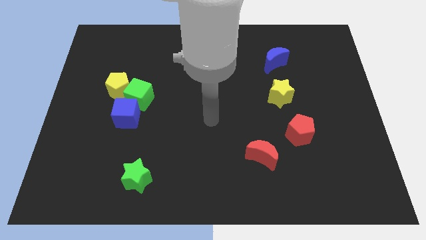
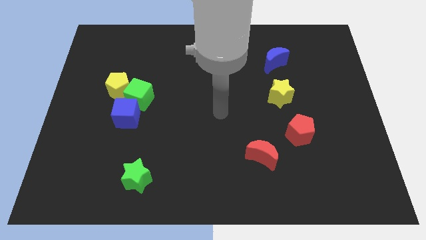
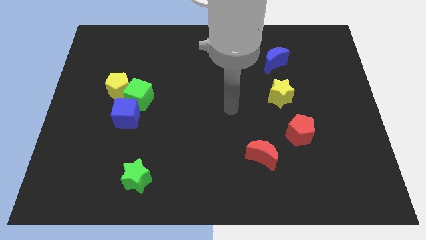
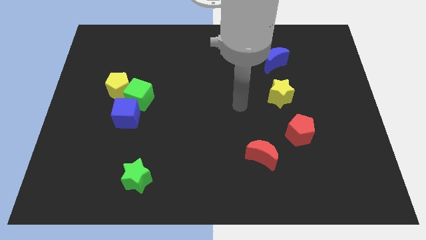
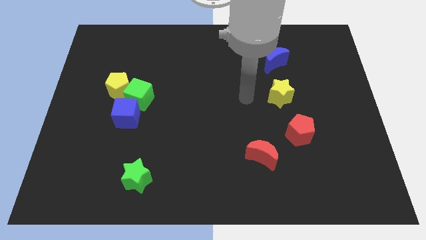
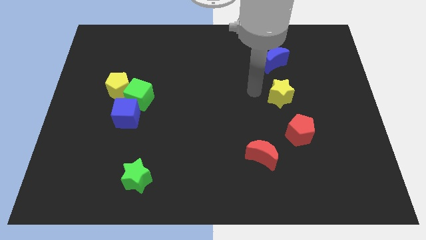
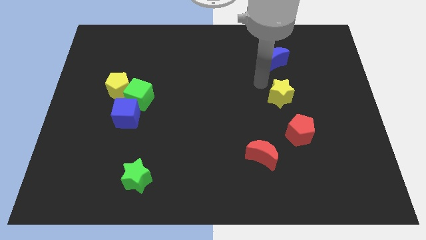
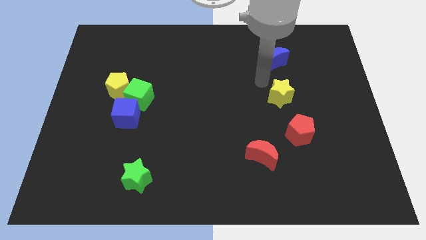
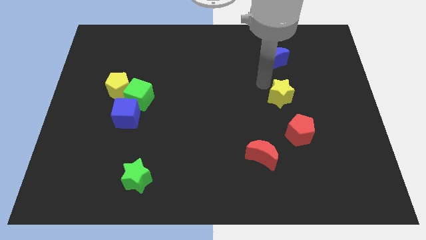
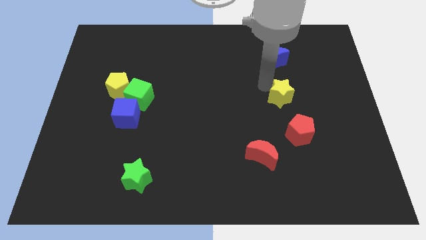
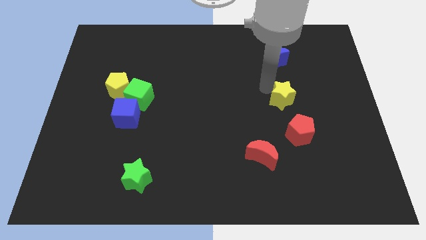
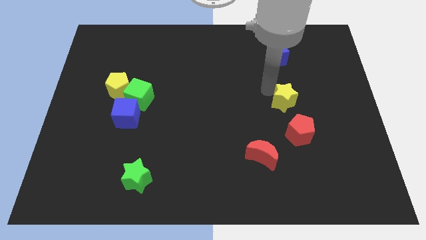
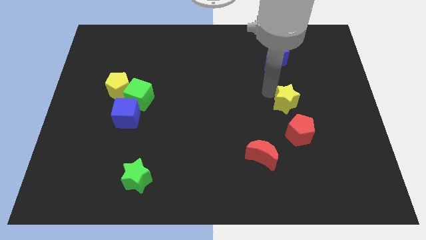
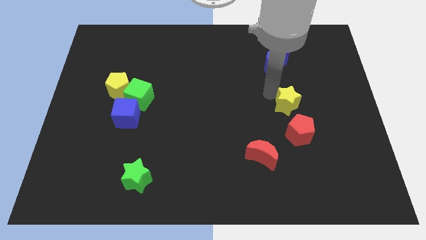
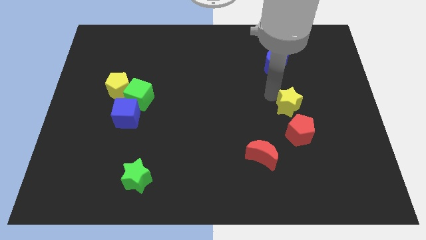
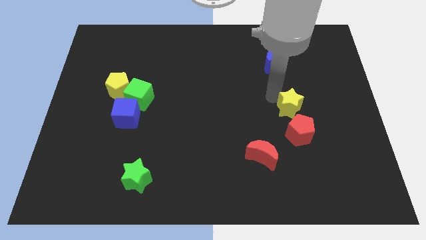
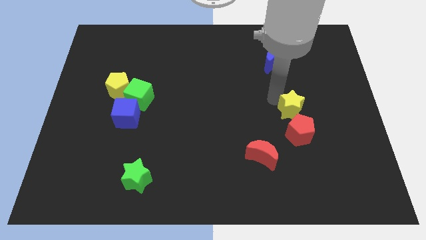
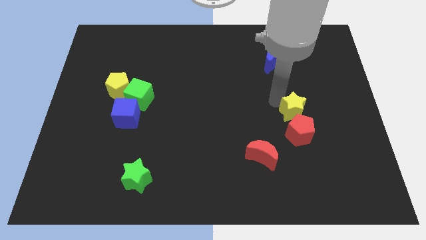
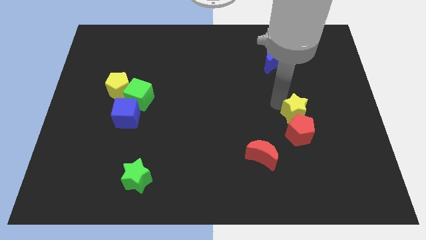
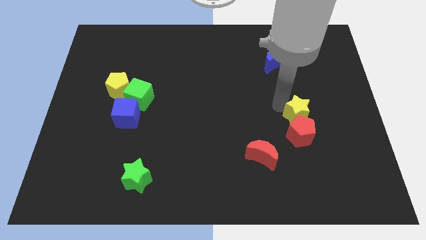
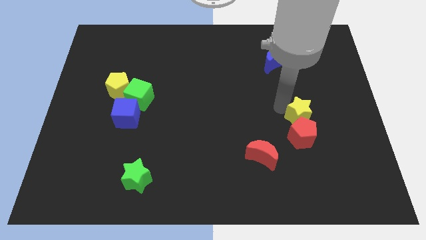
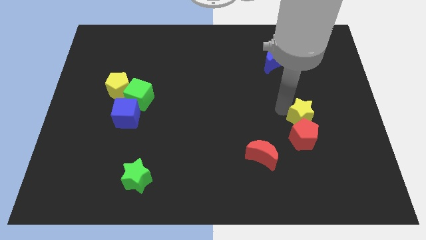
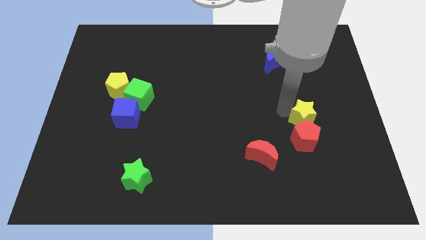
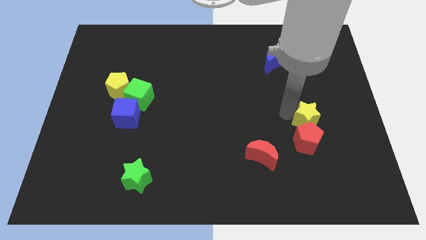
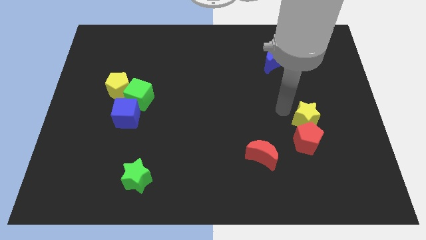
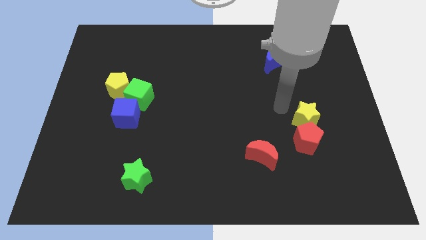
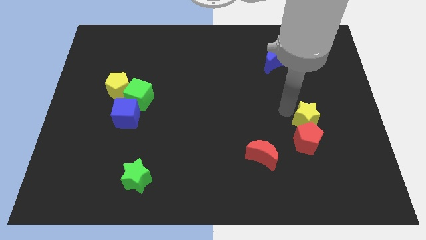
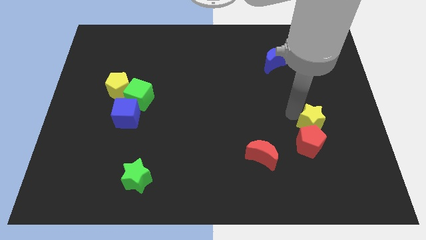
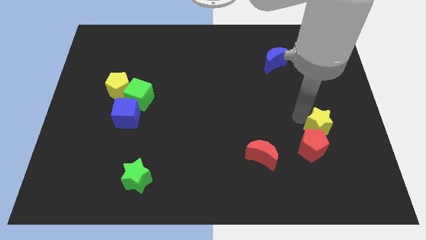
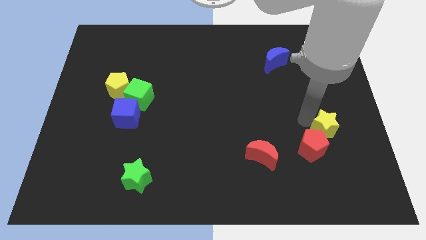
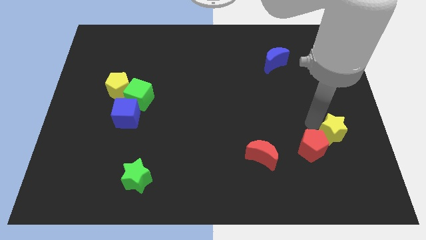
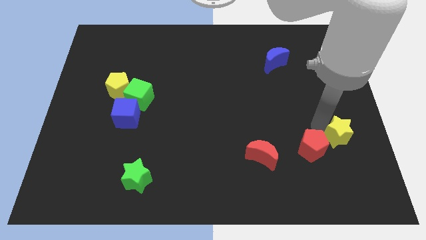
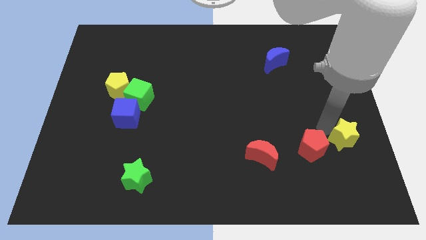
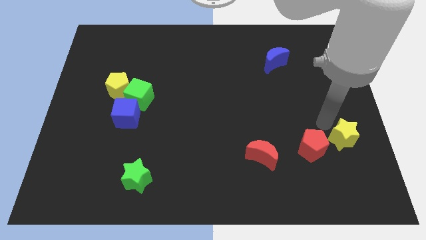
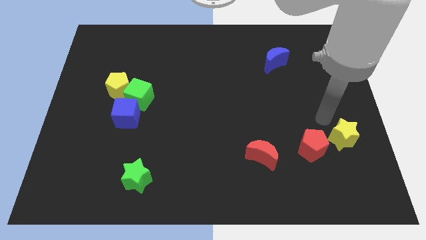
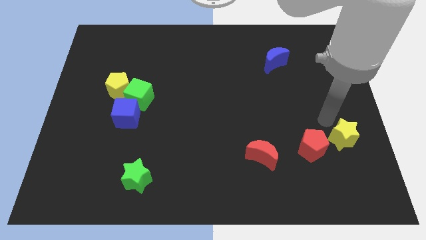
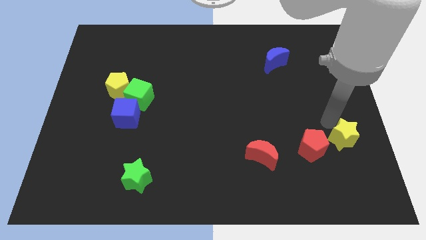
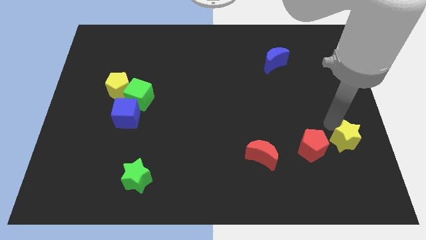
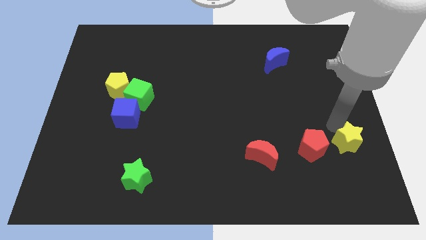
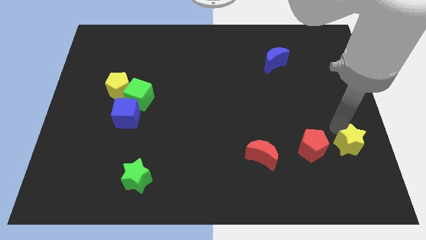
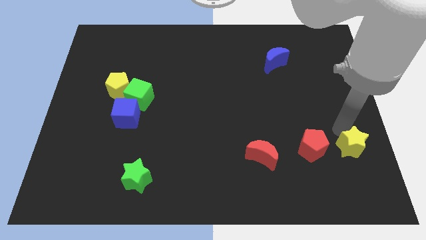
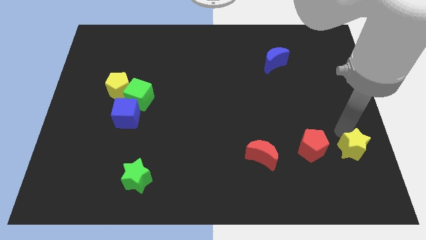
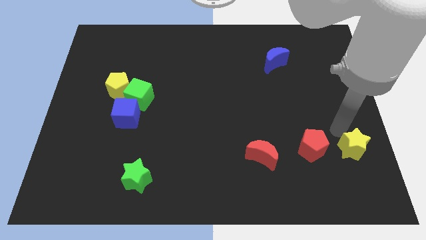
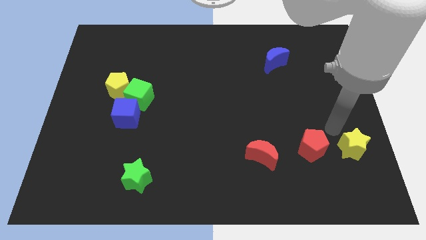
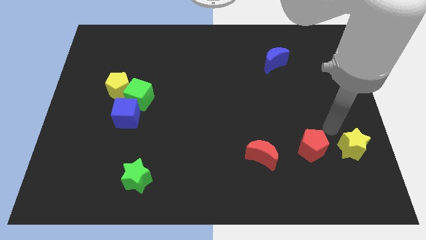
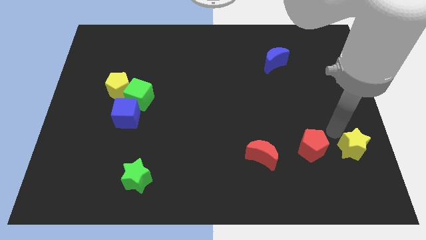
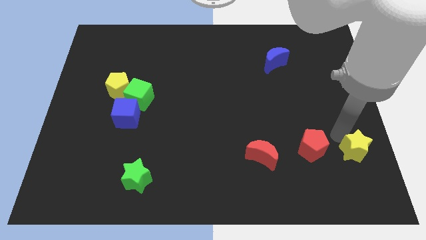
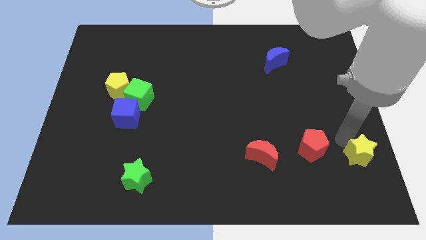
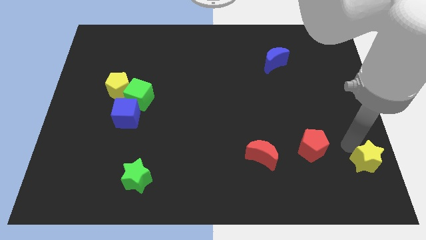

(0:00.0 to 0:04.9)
slide the yellow star to the lower right corner
